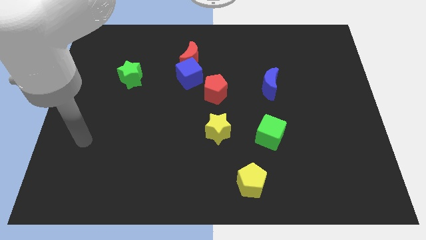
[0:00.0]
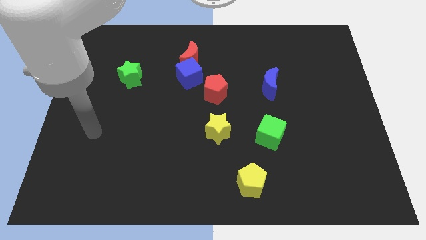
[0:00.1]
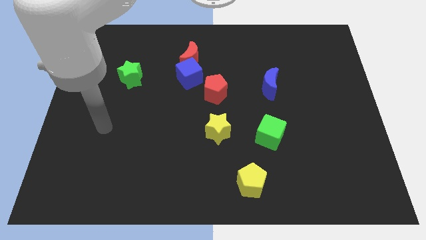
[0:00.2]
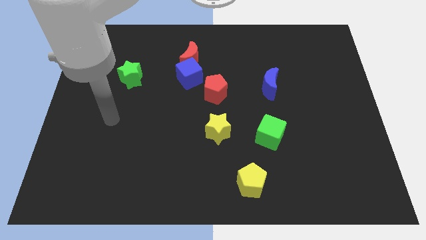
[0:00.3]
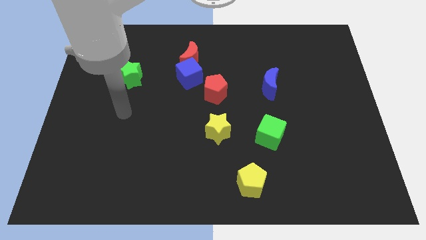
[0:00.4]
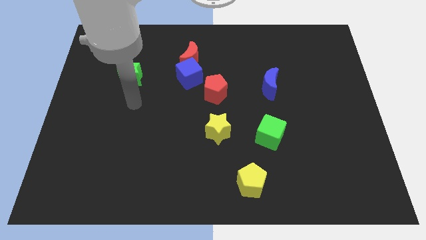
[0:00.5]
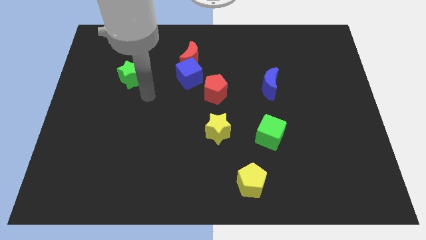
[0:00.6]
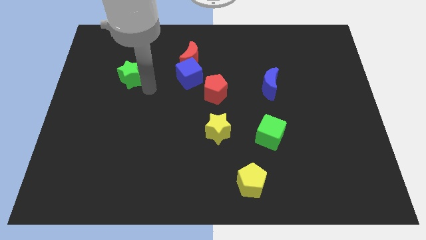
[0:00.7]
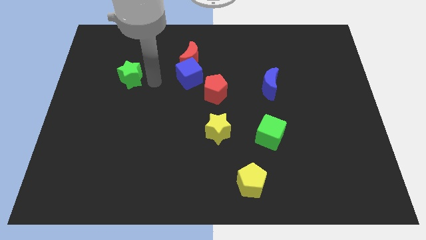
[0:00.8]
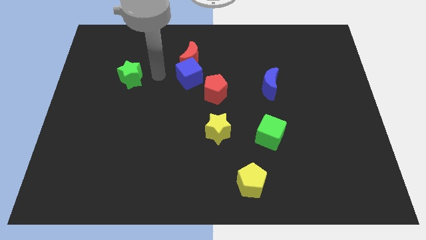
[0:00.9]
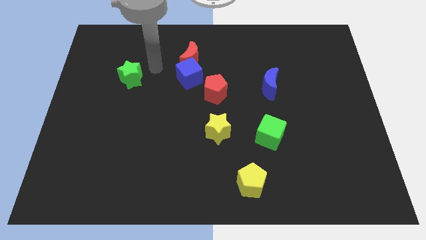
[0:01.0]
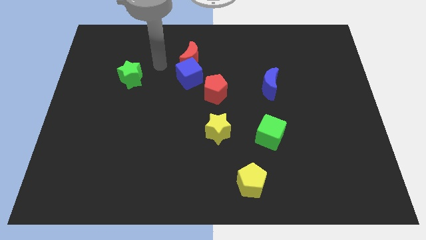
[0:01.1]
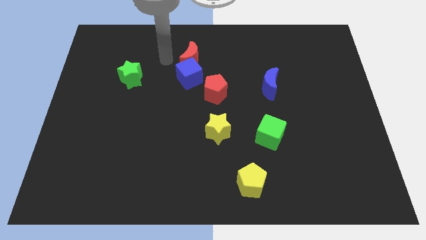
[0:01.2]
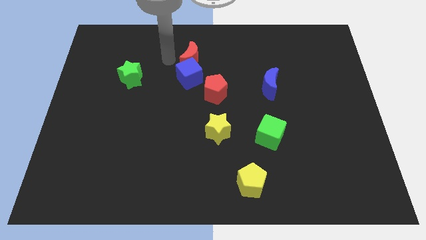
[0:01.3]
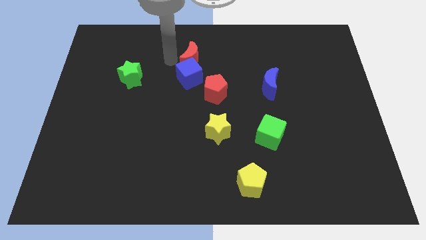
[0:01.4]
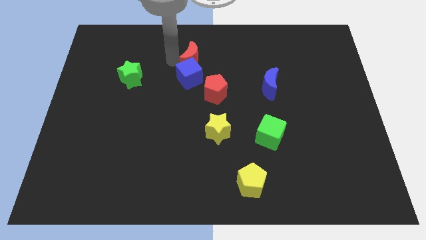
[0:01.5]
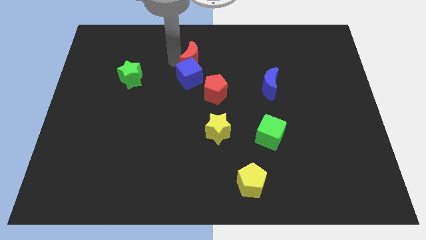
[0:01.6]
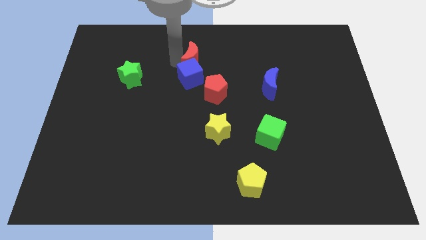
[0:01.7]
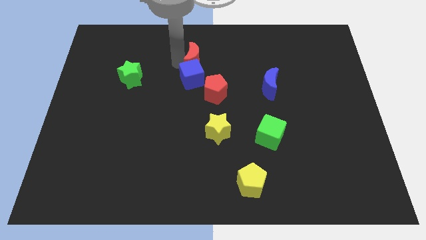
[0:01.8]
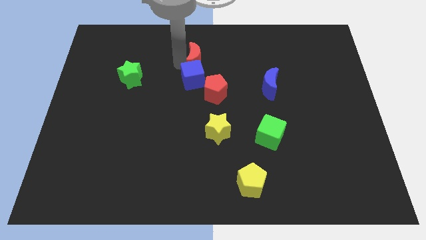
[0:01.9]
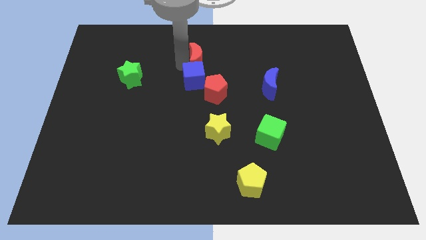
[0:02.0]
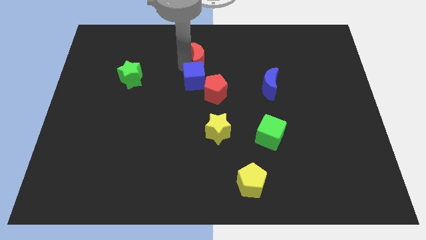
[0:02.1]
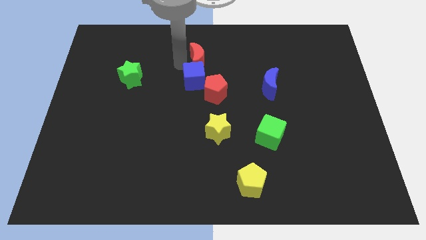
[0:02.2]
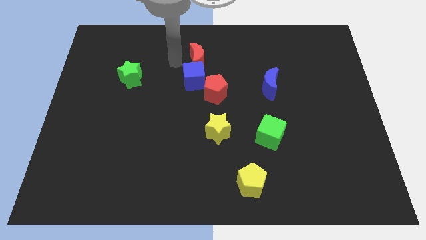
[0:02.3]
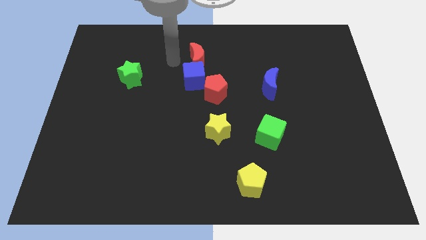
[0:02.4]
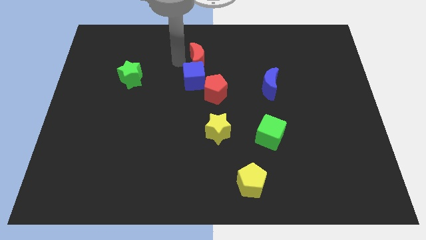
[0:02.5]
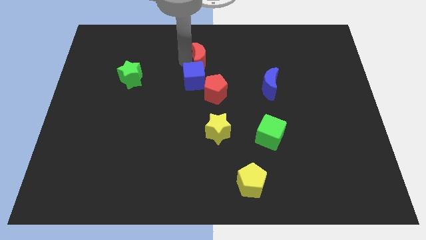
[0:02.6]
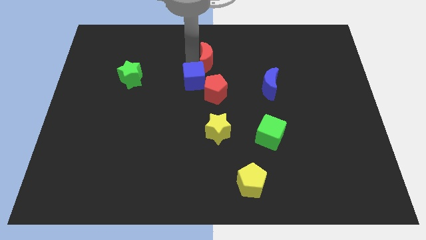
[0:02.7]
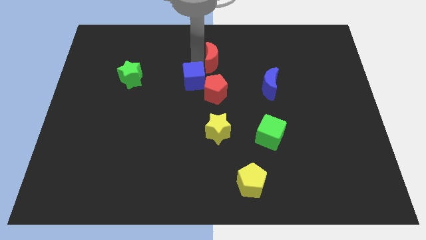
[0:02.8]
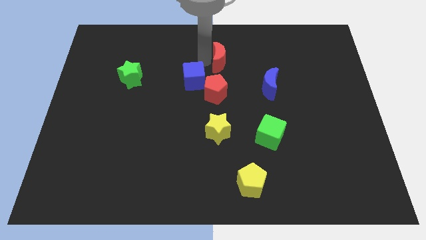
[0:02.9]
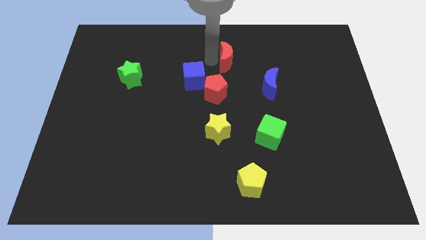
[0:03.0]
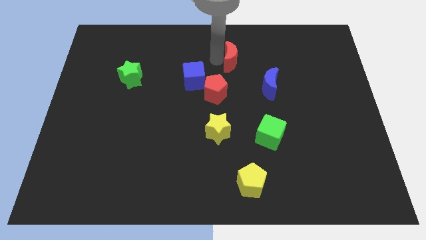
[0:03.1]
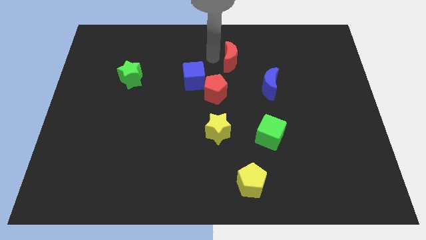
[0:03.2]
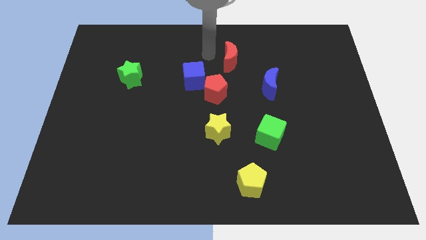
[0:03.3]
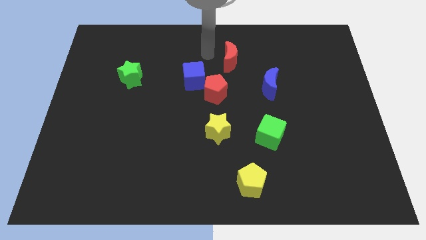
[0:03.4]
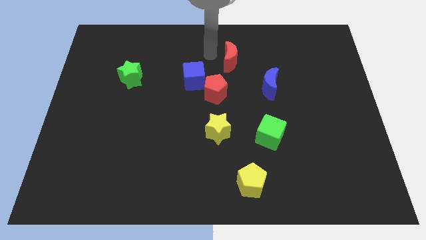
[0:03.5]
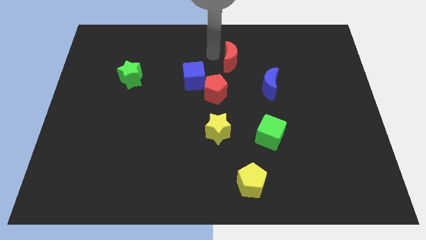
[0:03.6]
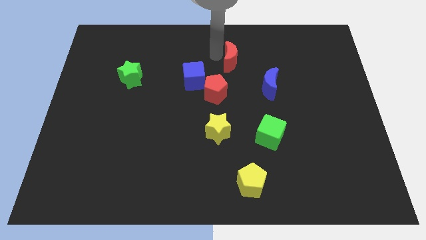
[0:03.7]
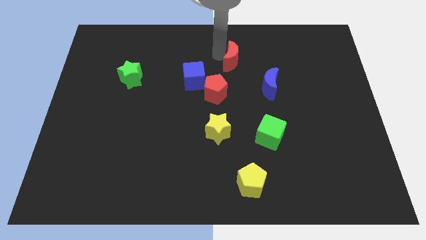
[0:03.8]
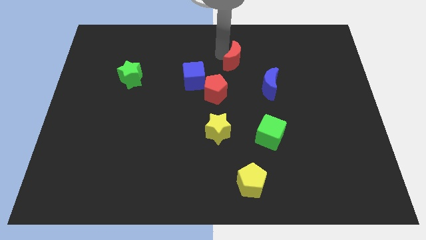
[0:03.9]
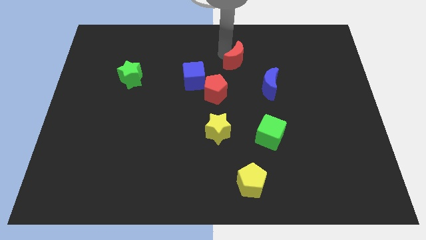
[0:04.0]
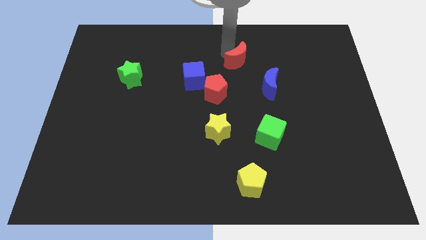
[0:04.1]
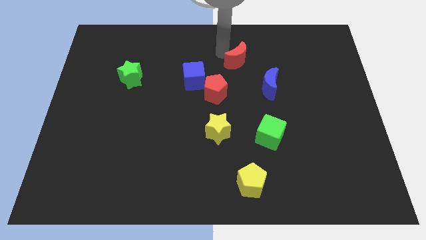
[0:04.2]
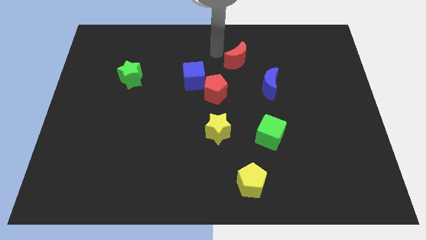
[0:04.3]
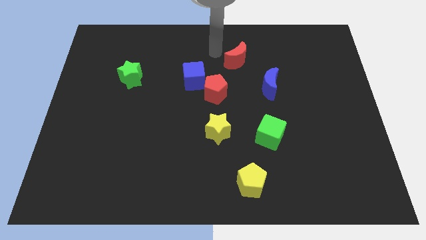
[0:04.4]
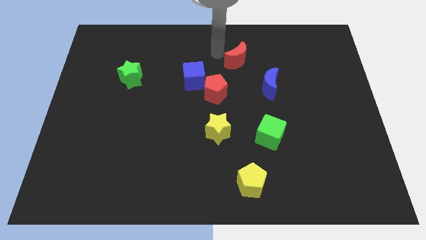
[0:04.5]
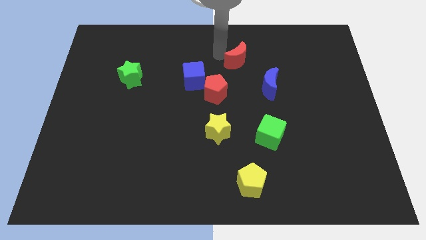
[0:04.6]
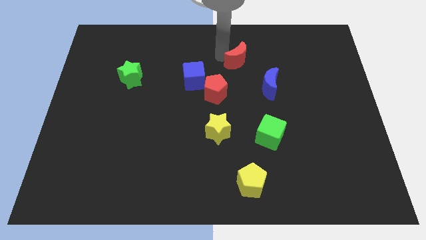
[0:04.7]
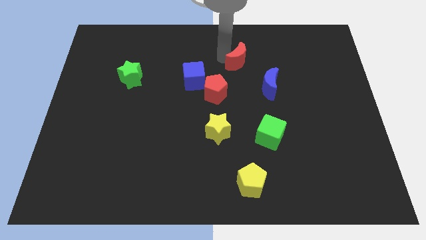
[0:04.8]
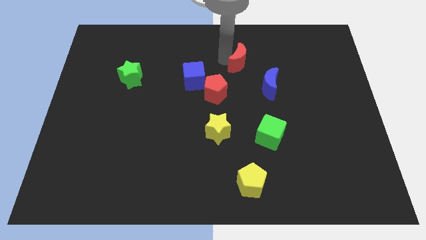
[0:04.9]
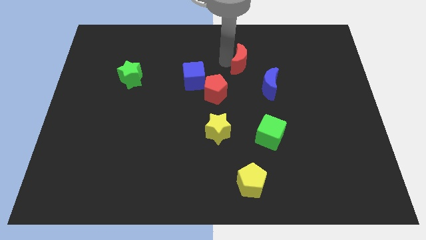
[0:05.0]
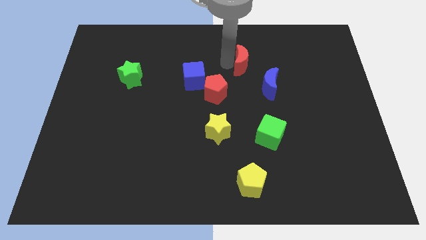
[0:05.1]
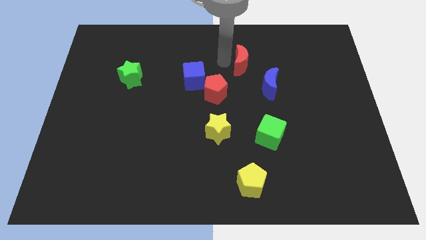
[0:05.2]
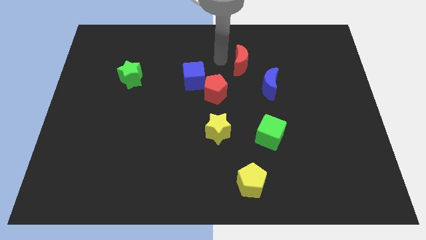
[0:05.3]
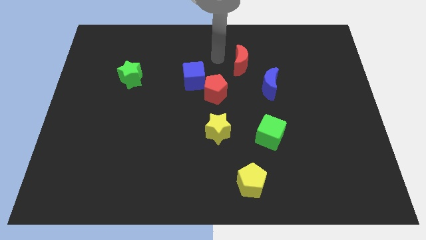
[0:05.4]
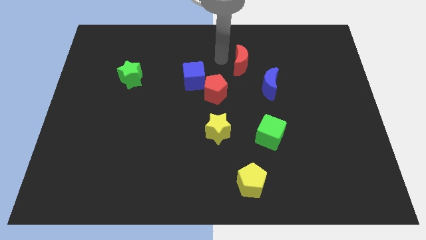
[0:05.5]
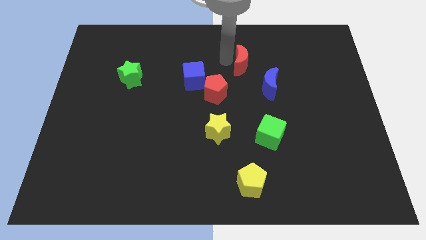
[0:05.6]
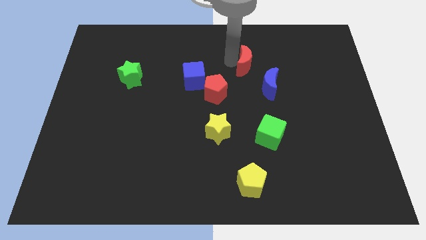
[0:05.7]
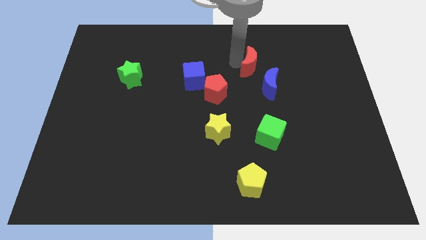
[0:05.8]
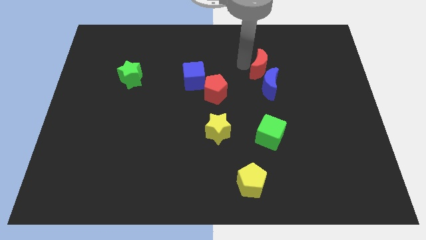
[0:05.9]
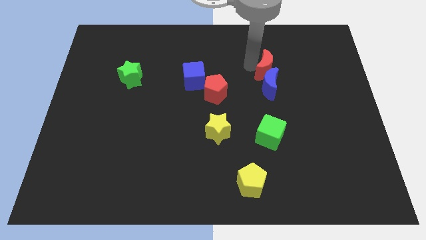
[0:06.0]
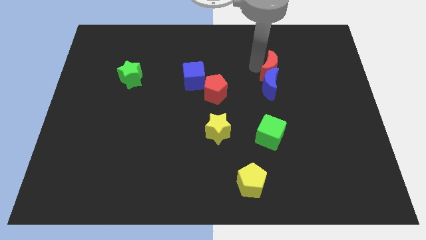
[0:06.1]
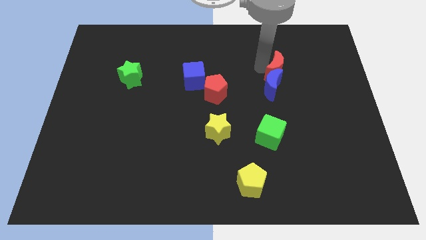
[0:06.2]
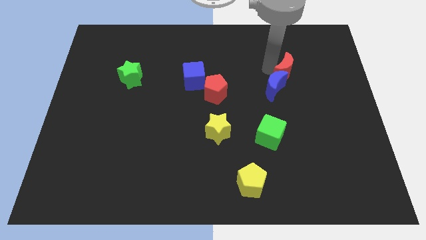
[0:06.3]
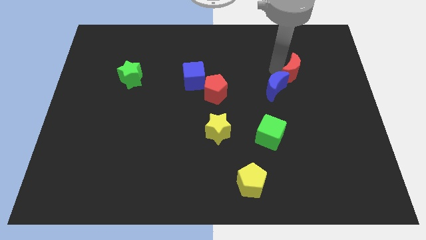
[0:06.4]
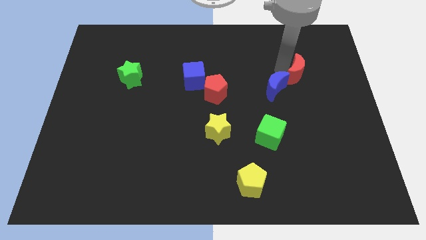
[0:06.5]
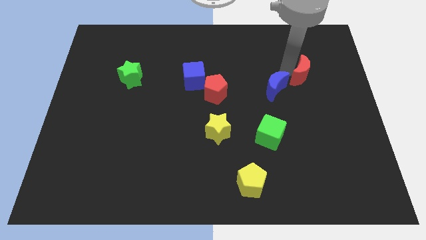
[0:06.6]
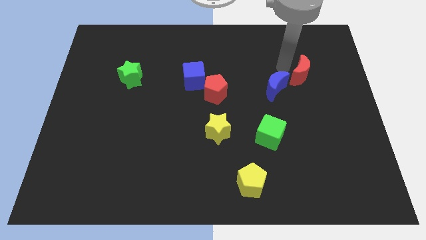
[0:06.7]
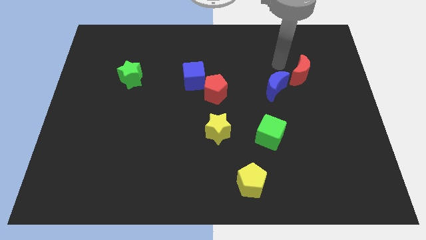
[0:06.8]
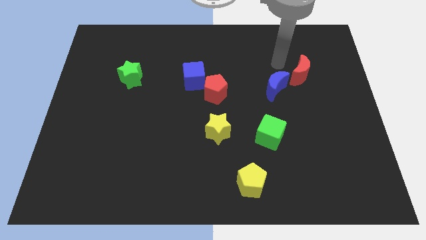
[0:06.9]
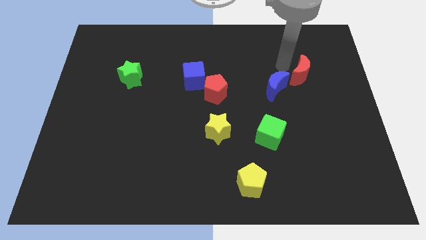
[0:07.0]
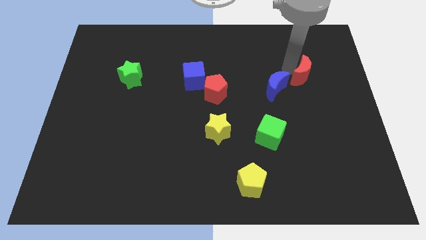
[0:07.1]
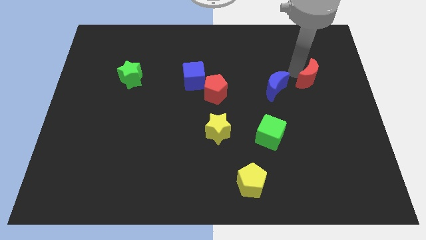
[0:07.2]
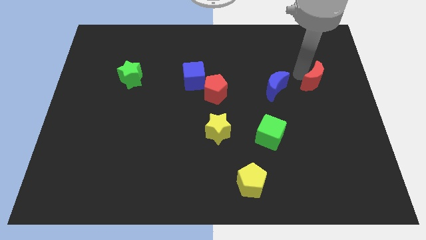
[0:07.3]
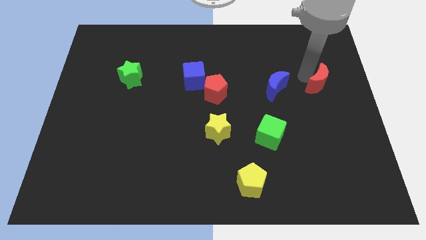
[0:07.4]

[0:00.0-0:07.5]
put the red moon to the center right
